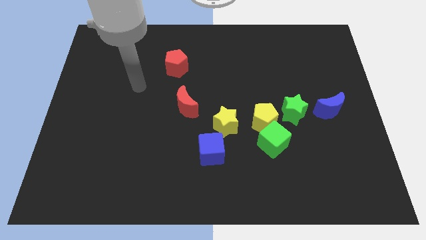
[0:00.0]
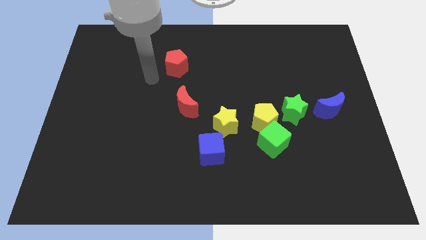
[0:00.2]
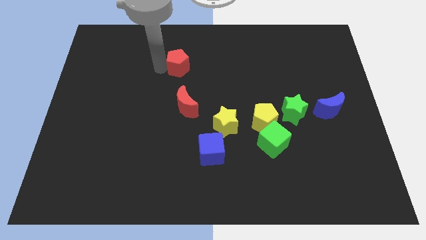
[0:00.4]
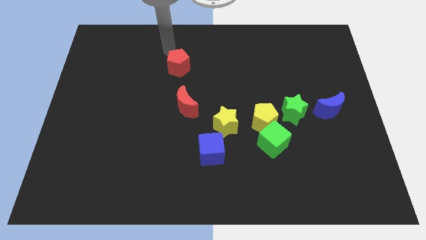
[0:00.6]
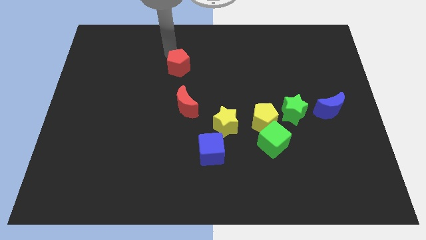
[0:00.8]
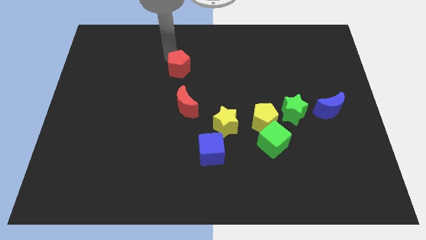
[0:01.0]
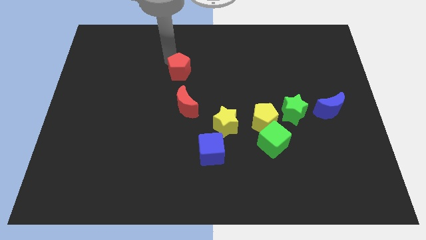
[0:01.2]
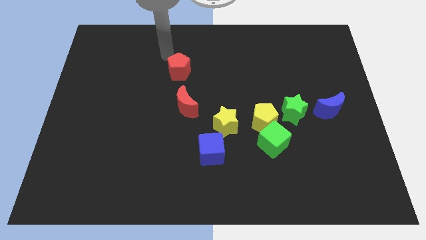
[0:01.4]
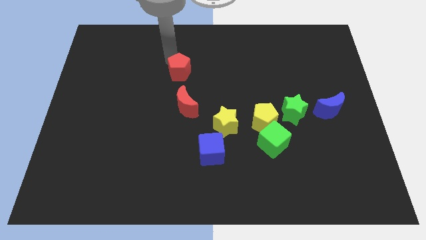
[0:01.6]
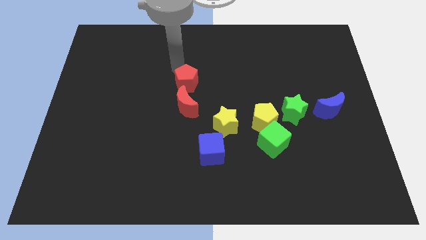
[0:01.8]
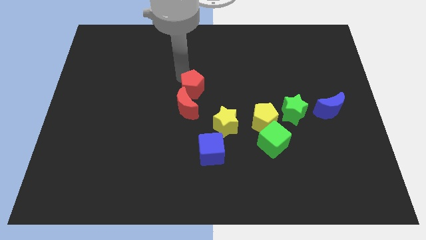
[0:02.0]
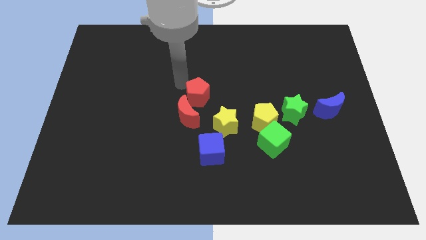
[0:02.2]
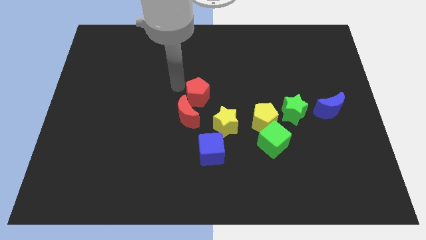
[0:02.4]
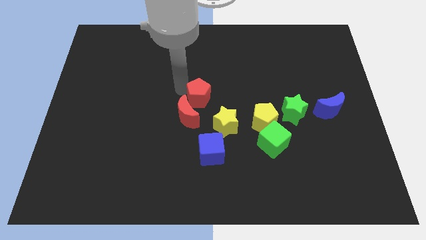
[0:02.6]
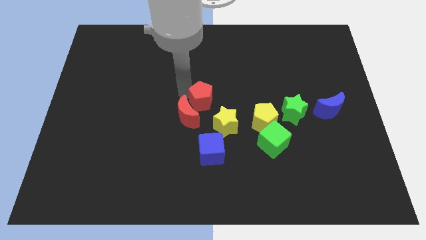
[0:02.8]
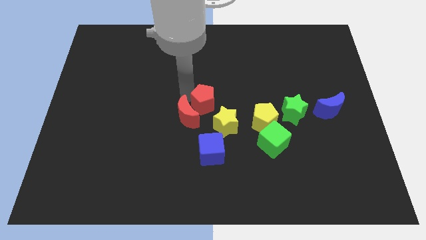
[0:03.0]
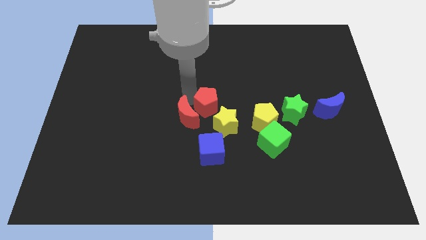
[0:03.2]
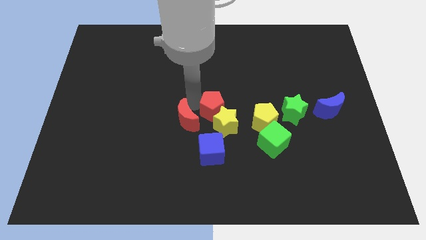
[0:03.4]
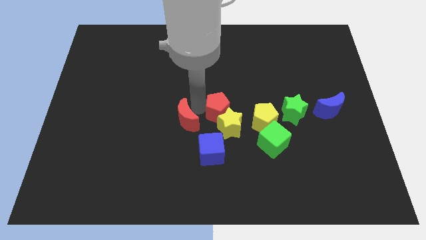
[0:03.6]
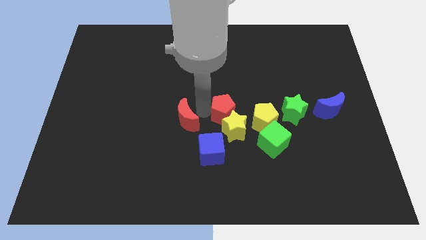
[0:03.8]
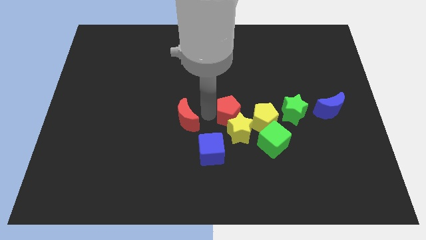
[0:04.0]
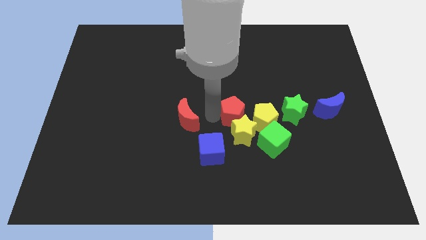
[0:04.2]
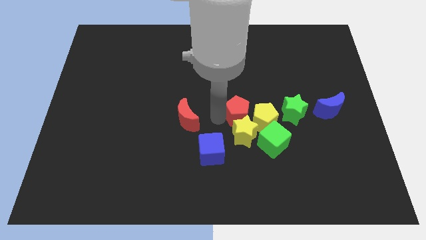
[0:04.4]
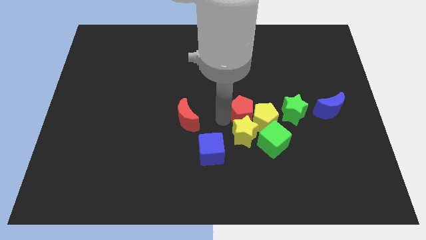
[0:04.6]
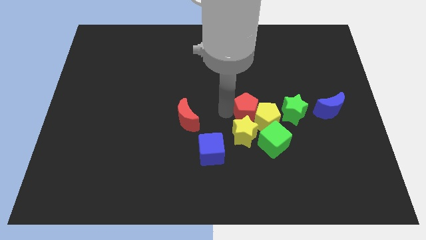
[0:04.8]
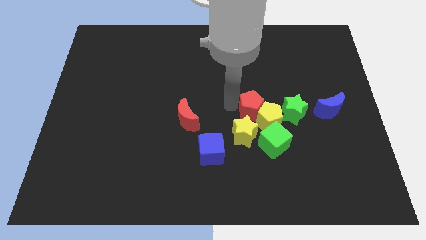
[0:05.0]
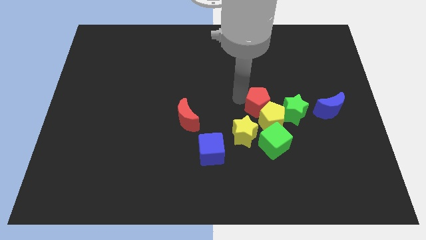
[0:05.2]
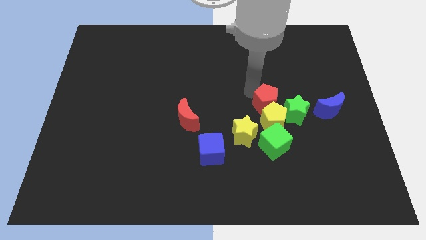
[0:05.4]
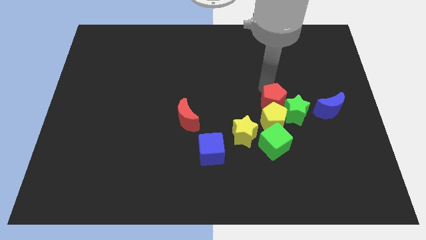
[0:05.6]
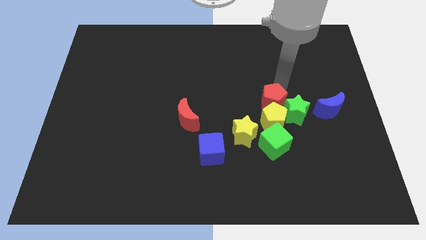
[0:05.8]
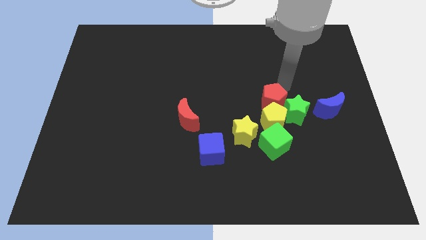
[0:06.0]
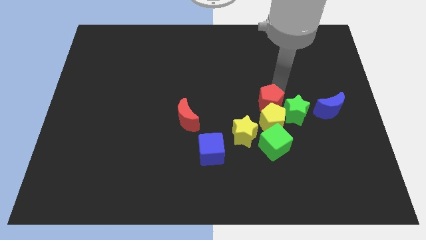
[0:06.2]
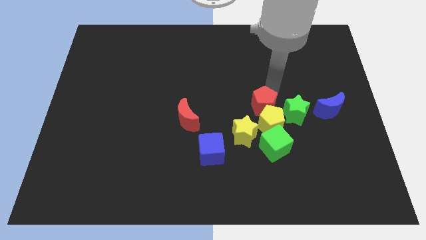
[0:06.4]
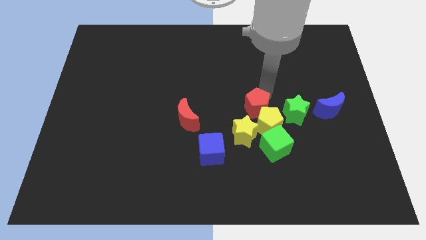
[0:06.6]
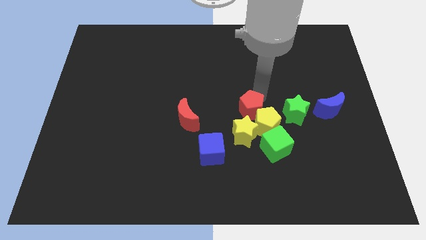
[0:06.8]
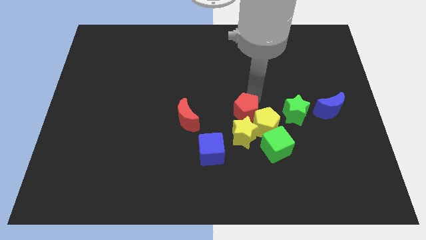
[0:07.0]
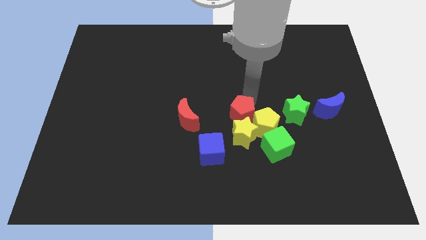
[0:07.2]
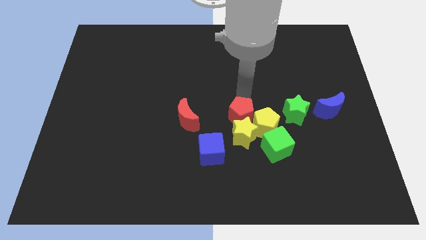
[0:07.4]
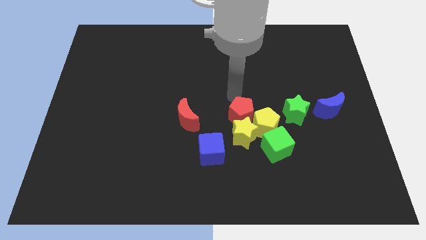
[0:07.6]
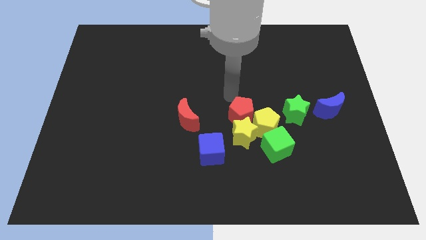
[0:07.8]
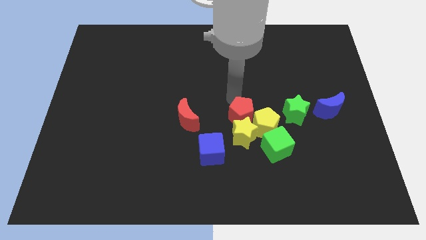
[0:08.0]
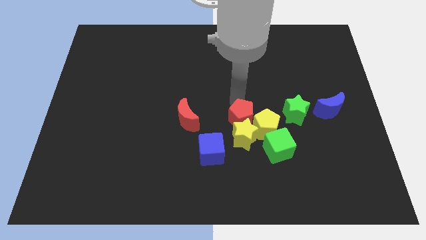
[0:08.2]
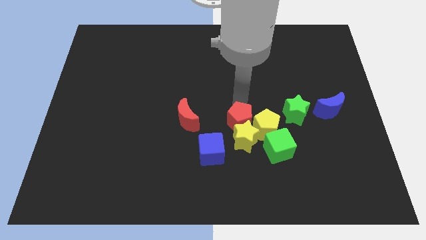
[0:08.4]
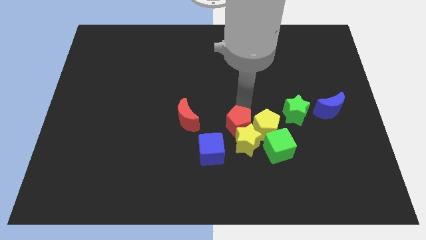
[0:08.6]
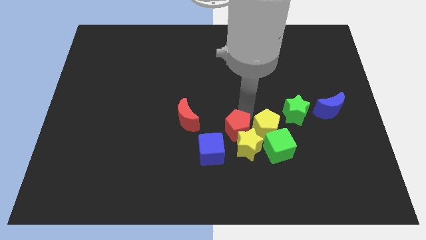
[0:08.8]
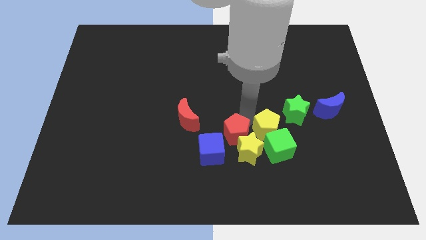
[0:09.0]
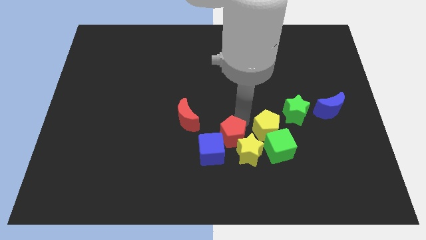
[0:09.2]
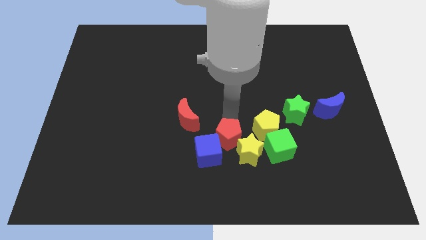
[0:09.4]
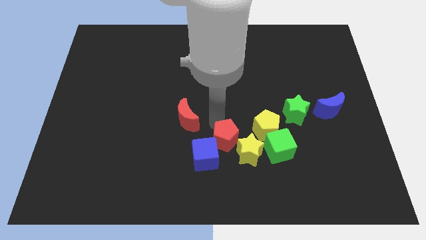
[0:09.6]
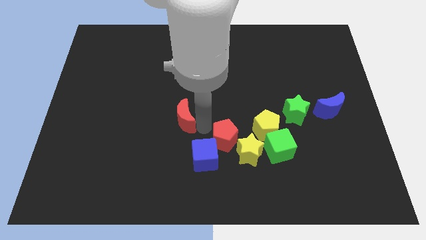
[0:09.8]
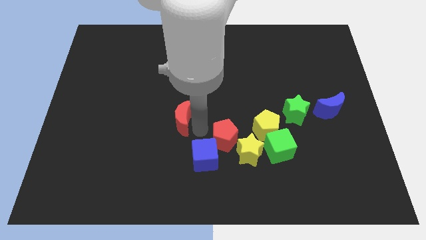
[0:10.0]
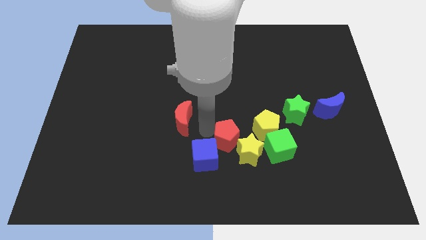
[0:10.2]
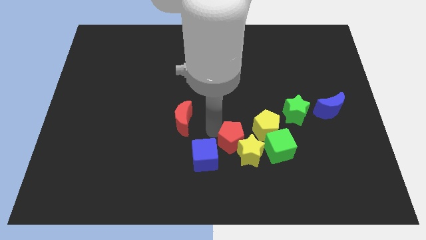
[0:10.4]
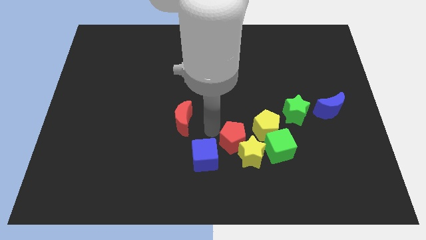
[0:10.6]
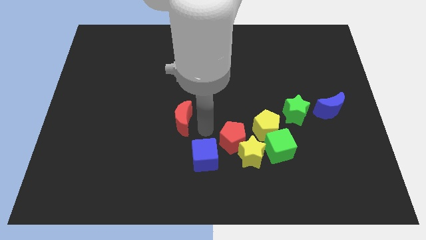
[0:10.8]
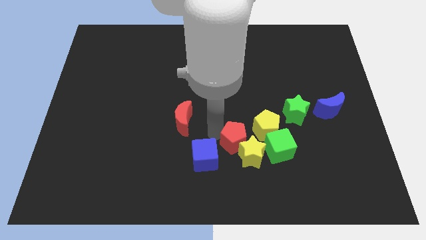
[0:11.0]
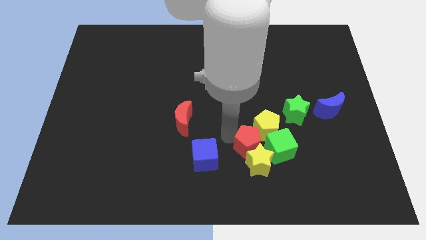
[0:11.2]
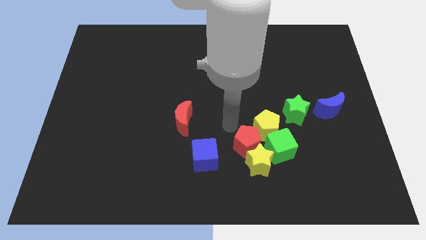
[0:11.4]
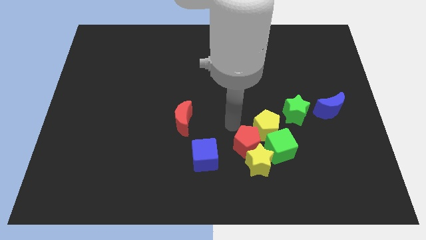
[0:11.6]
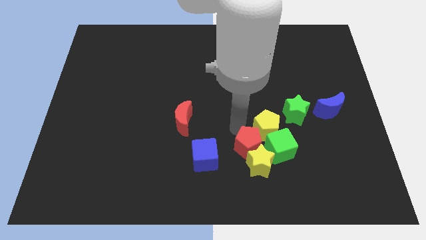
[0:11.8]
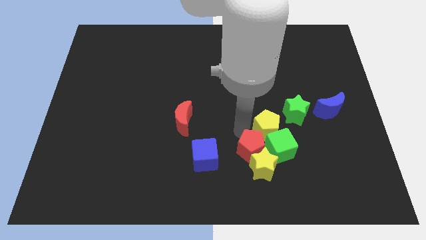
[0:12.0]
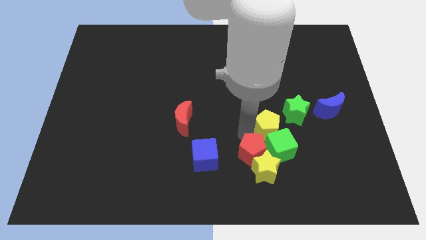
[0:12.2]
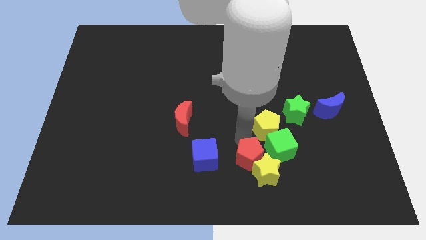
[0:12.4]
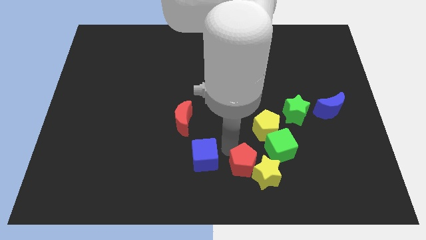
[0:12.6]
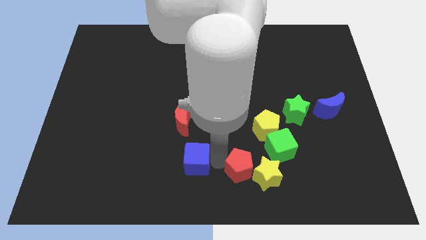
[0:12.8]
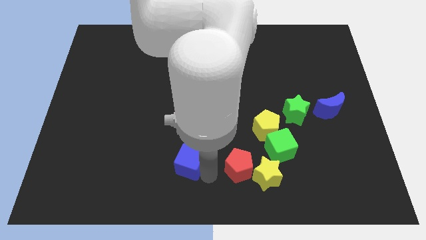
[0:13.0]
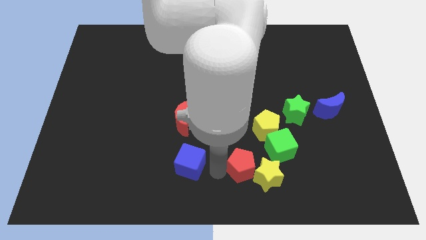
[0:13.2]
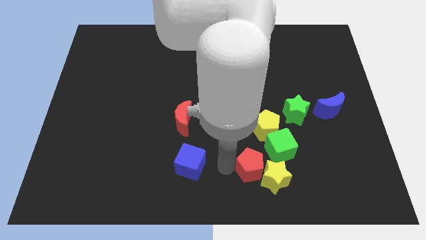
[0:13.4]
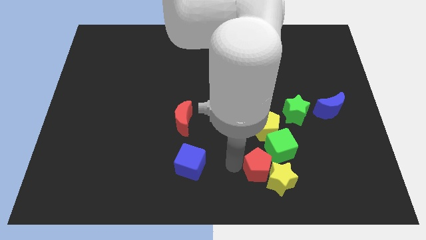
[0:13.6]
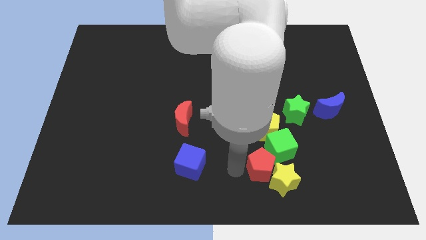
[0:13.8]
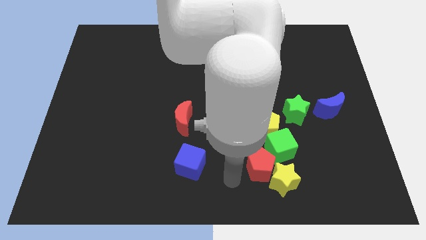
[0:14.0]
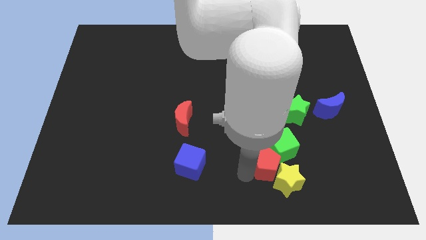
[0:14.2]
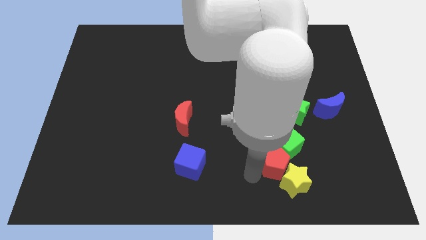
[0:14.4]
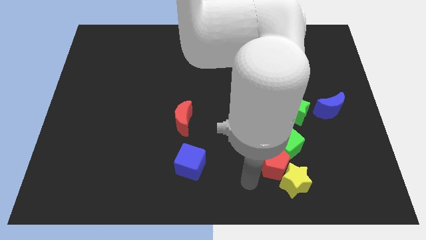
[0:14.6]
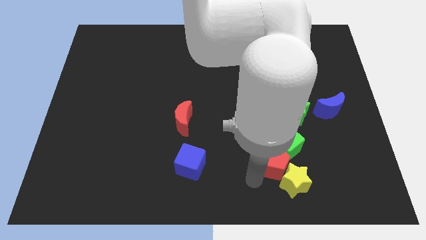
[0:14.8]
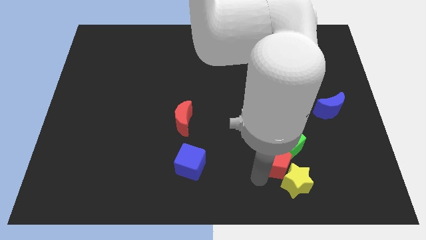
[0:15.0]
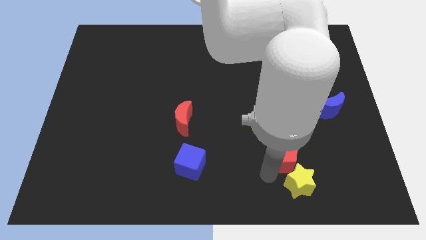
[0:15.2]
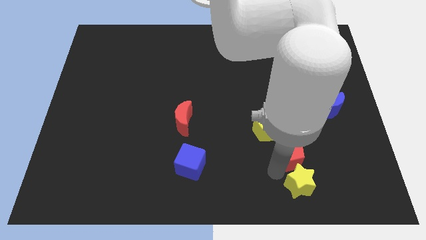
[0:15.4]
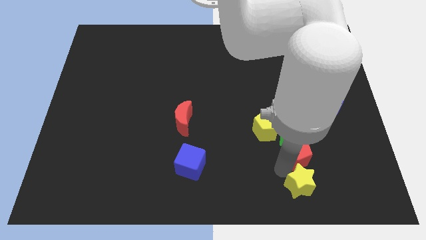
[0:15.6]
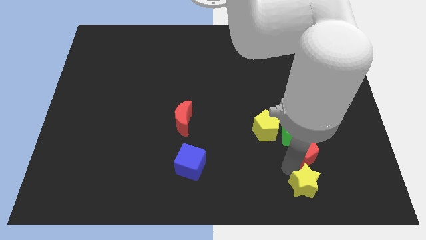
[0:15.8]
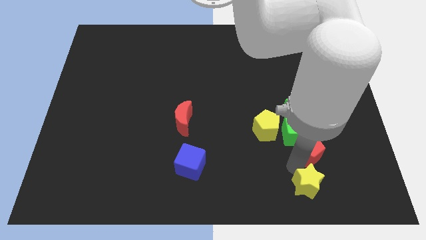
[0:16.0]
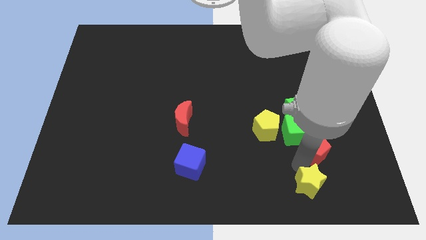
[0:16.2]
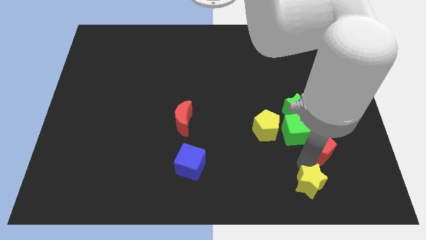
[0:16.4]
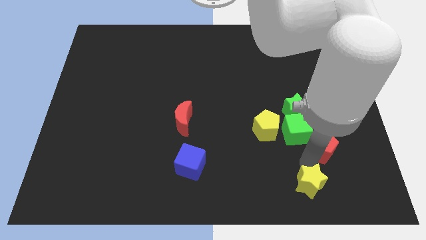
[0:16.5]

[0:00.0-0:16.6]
move the red pentagon diagonally down and to the right of the green star
